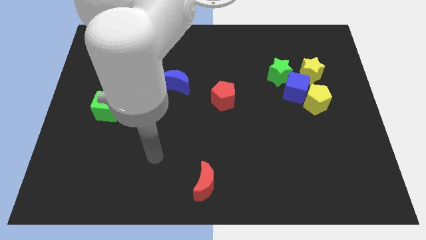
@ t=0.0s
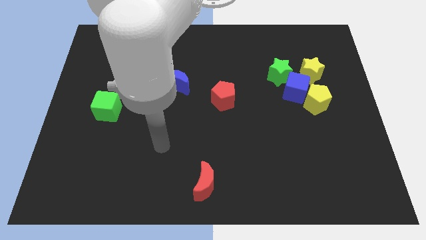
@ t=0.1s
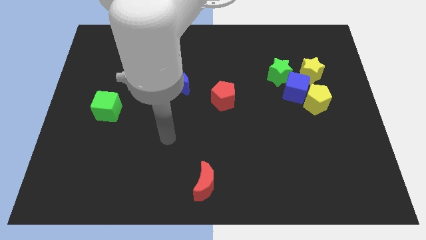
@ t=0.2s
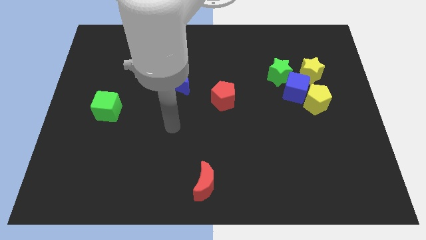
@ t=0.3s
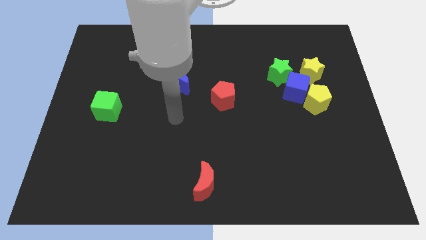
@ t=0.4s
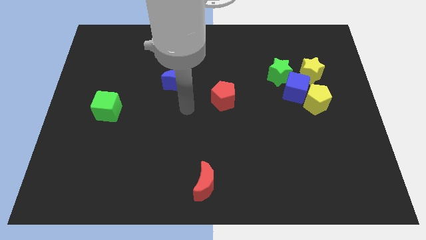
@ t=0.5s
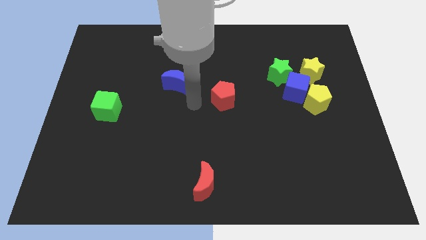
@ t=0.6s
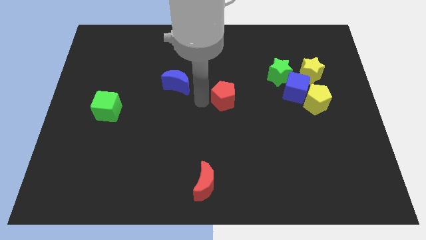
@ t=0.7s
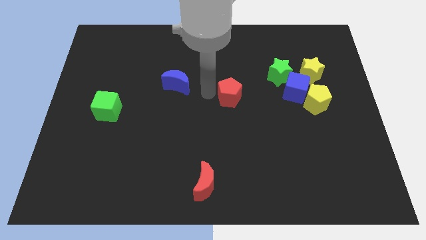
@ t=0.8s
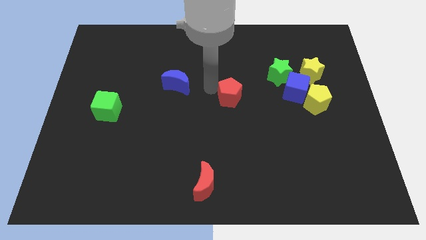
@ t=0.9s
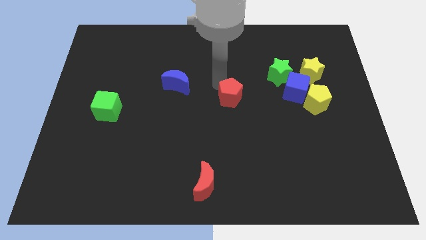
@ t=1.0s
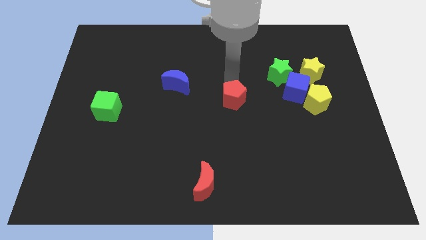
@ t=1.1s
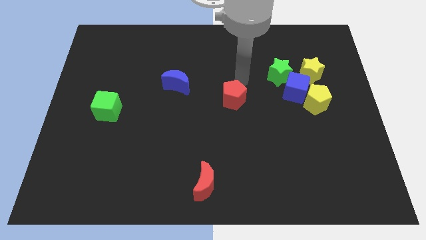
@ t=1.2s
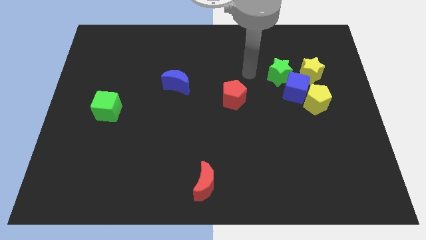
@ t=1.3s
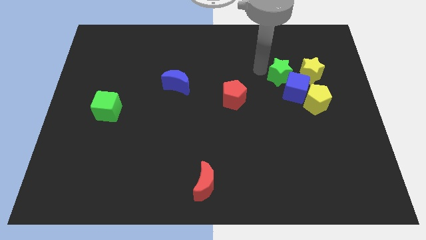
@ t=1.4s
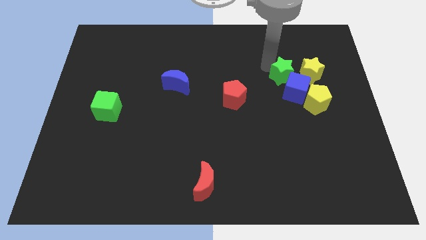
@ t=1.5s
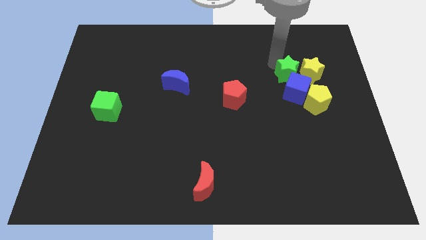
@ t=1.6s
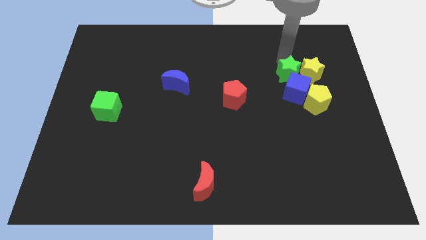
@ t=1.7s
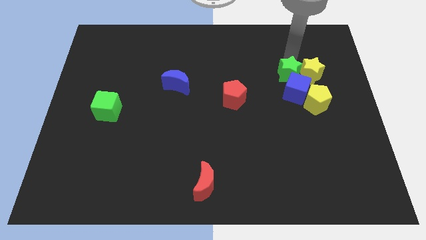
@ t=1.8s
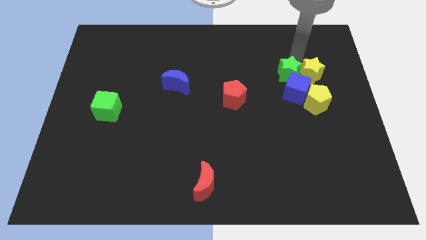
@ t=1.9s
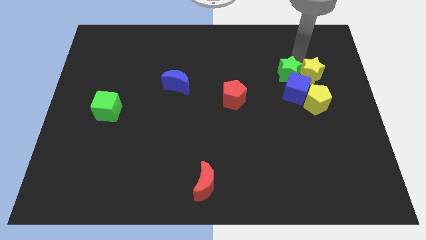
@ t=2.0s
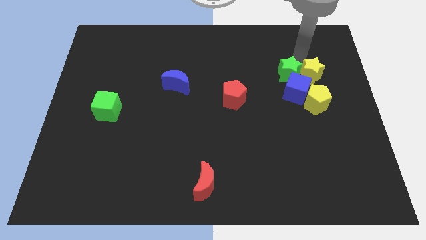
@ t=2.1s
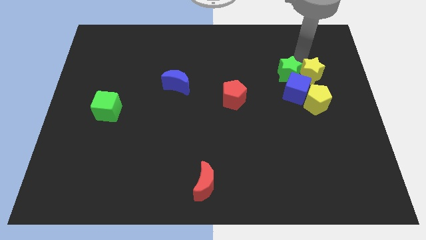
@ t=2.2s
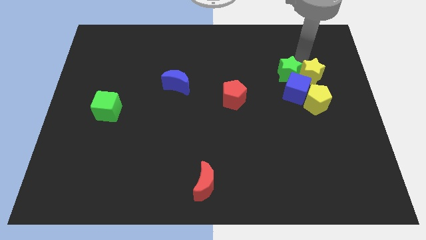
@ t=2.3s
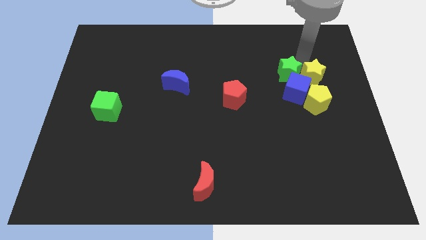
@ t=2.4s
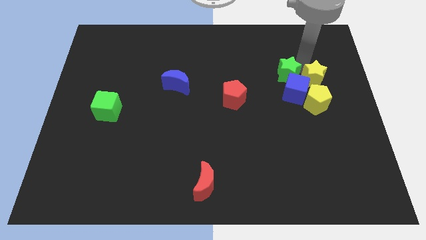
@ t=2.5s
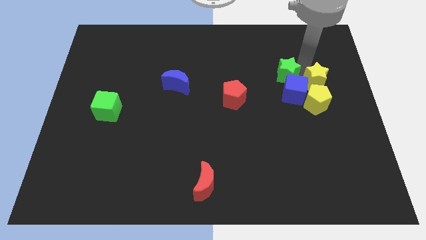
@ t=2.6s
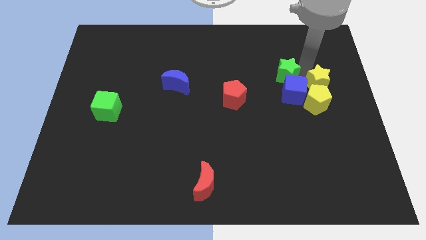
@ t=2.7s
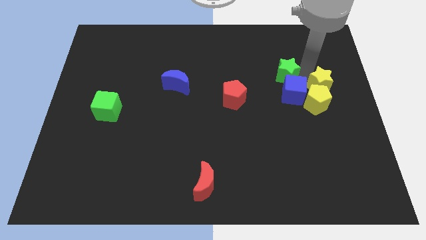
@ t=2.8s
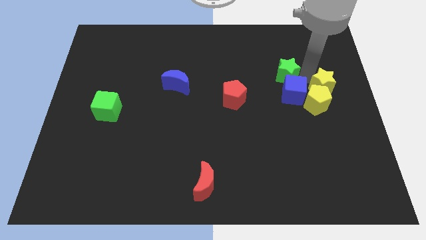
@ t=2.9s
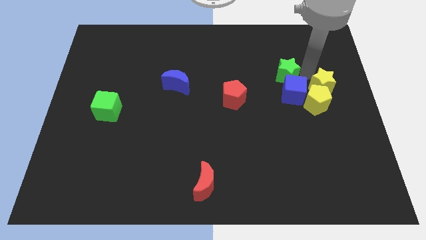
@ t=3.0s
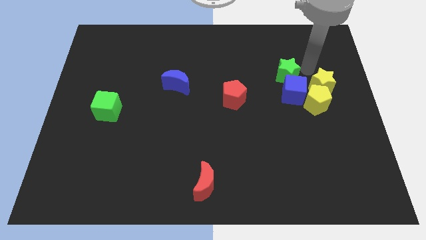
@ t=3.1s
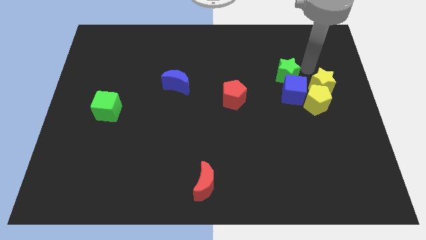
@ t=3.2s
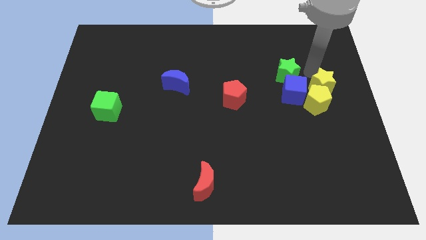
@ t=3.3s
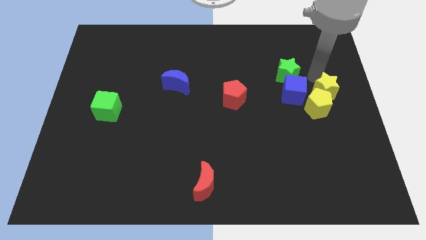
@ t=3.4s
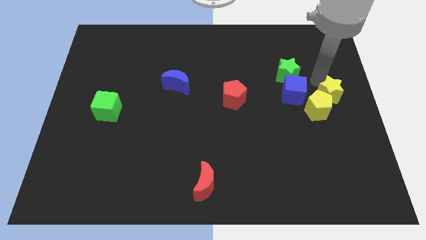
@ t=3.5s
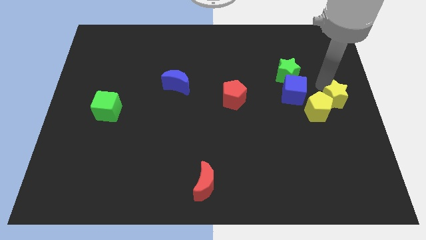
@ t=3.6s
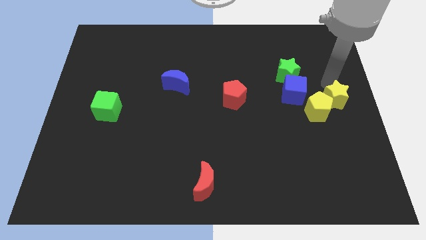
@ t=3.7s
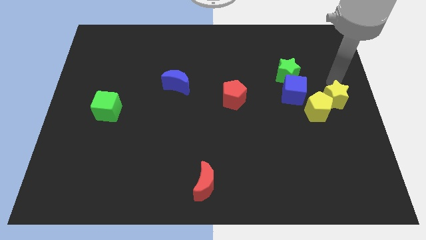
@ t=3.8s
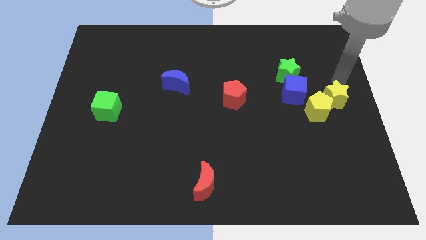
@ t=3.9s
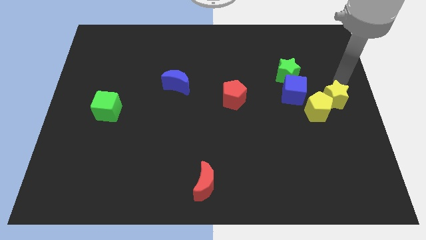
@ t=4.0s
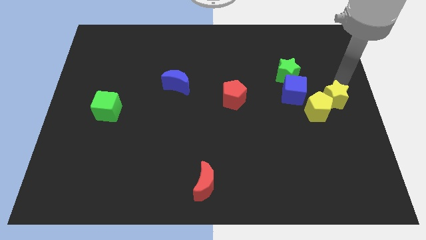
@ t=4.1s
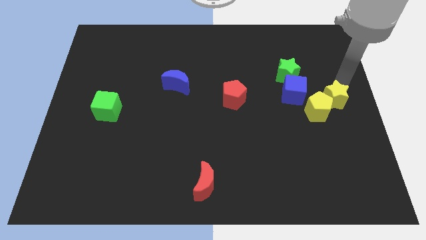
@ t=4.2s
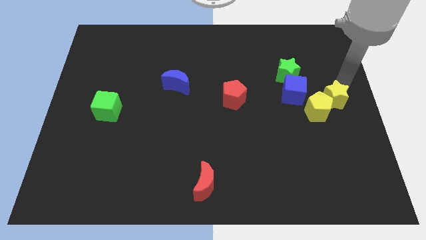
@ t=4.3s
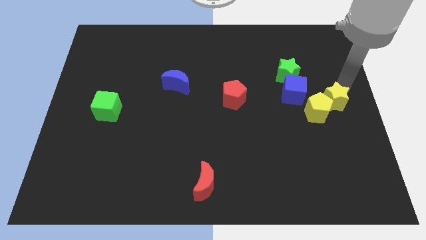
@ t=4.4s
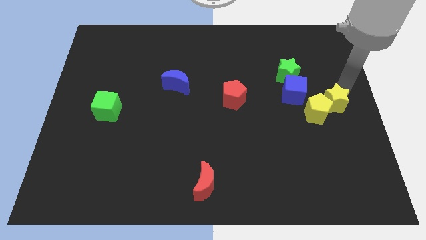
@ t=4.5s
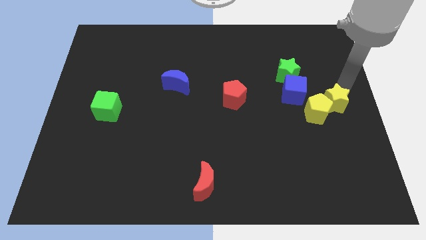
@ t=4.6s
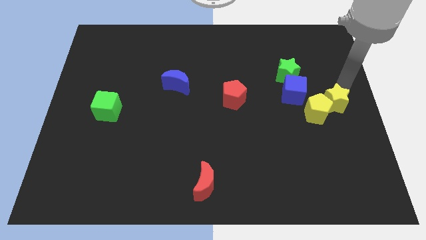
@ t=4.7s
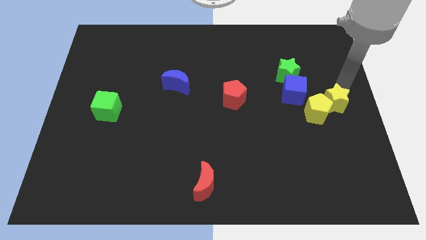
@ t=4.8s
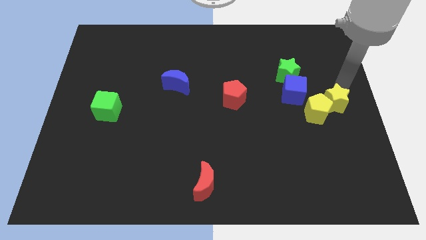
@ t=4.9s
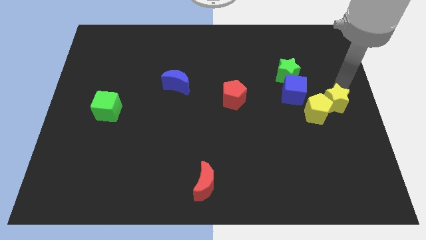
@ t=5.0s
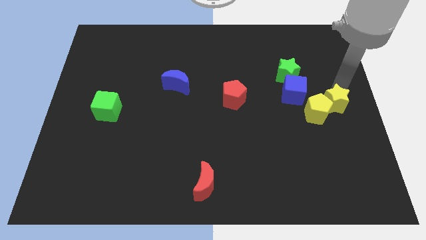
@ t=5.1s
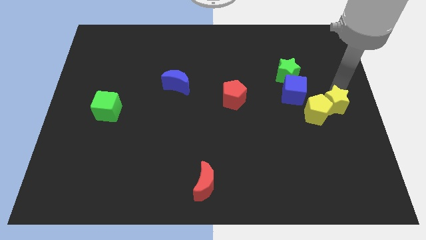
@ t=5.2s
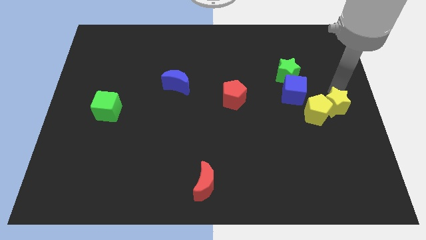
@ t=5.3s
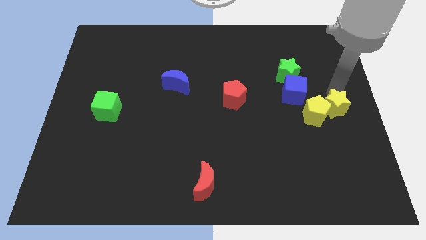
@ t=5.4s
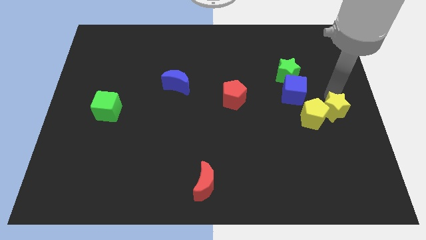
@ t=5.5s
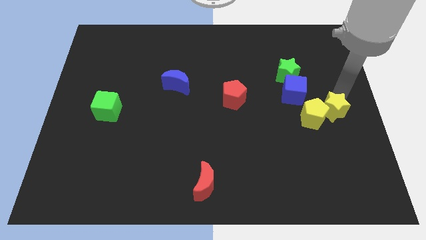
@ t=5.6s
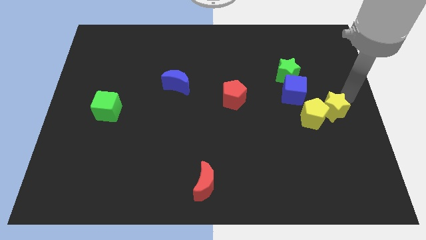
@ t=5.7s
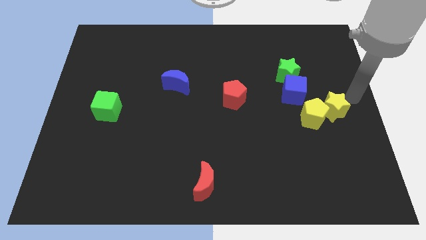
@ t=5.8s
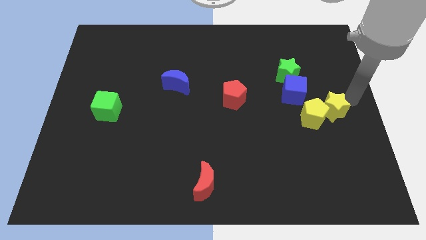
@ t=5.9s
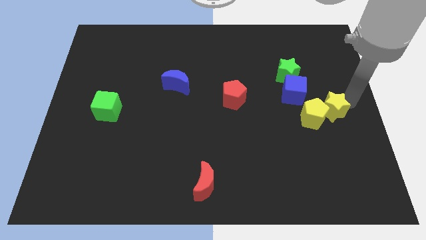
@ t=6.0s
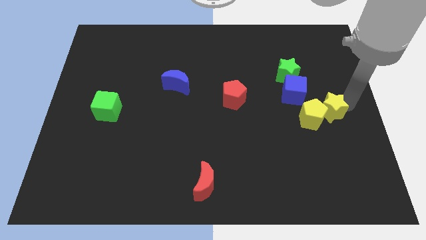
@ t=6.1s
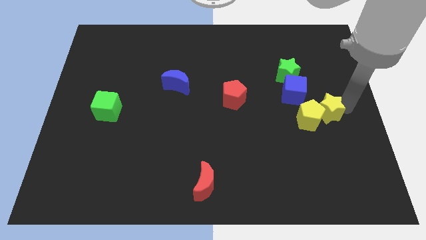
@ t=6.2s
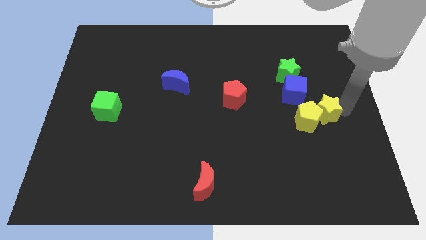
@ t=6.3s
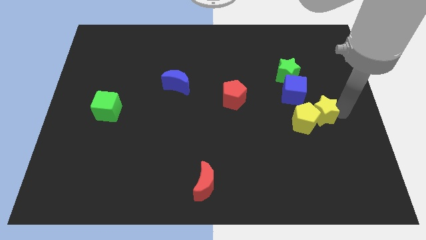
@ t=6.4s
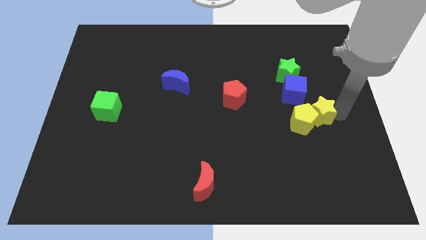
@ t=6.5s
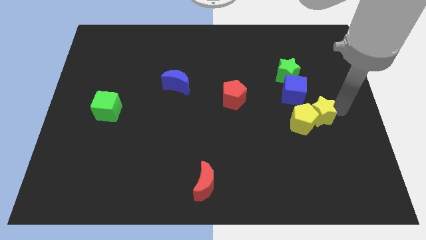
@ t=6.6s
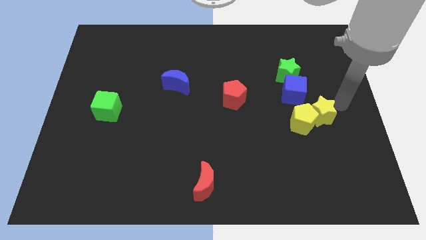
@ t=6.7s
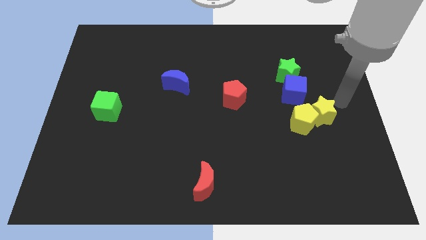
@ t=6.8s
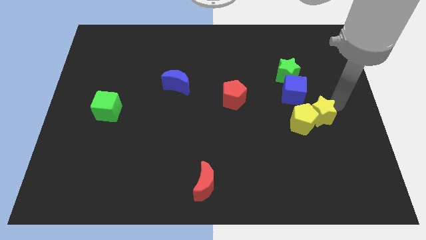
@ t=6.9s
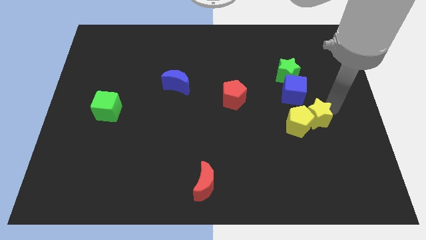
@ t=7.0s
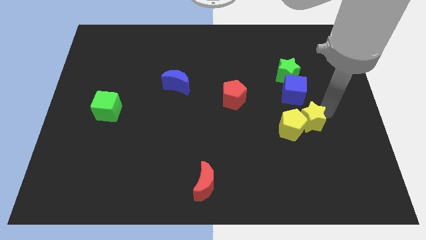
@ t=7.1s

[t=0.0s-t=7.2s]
move the yellow star a little bit down and to the left

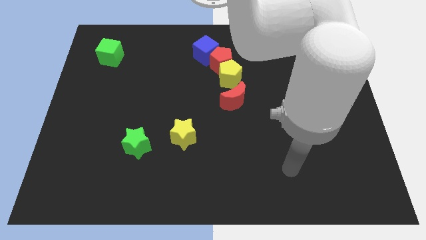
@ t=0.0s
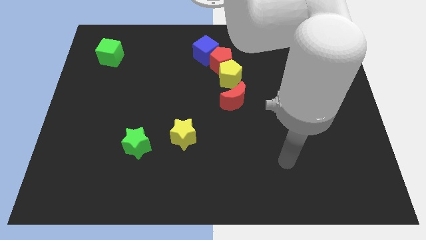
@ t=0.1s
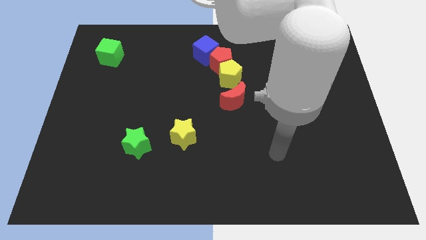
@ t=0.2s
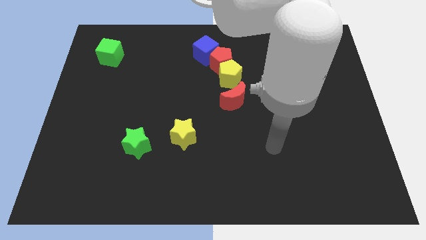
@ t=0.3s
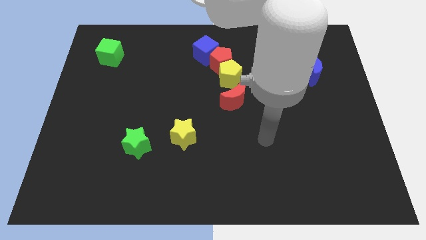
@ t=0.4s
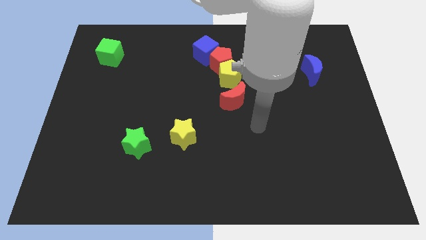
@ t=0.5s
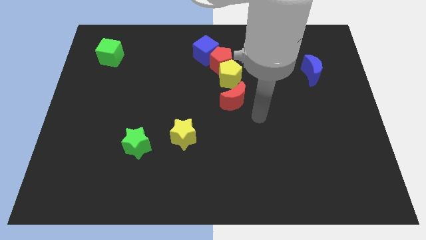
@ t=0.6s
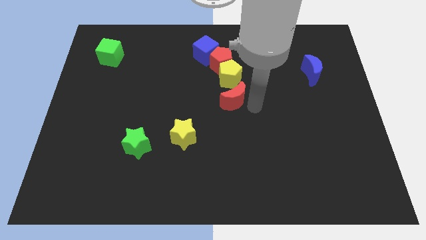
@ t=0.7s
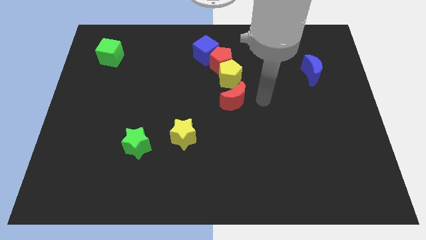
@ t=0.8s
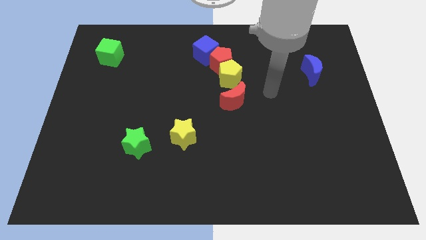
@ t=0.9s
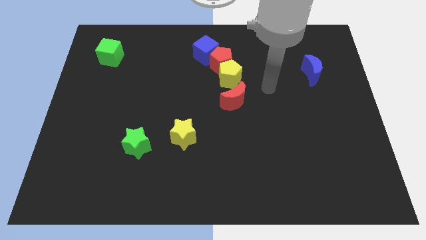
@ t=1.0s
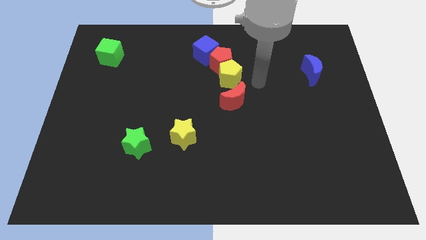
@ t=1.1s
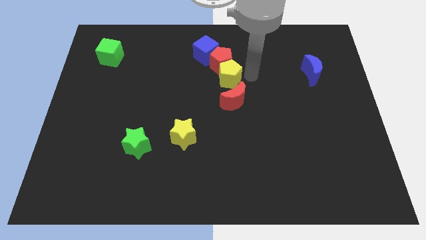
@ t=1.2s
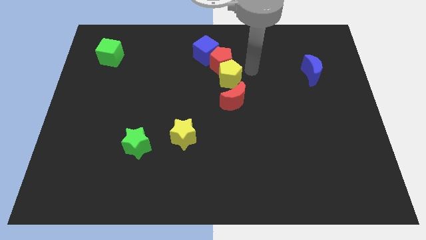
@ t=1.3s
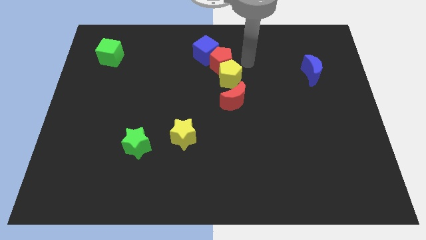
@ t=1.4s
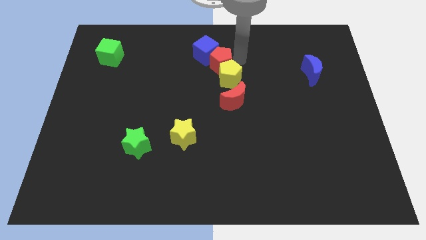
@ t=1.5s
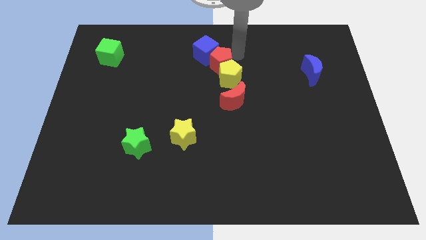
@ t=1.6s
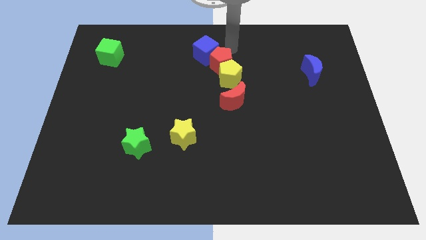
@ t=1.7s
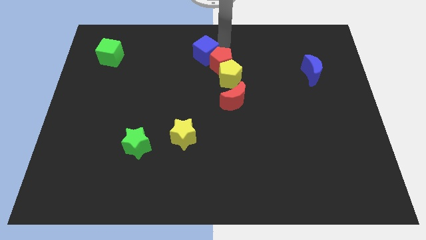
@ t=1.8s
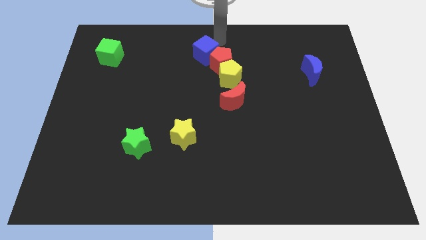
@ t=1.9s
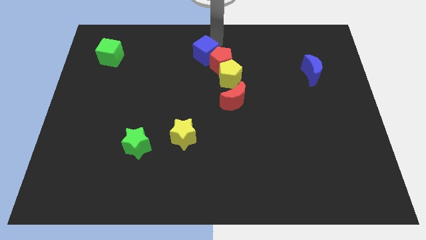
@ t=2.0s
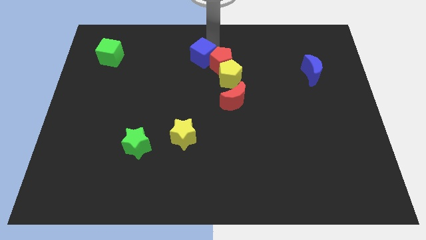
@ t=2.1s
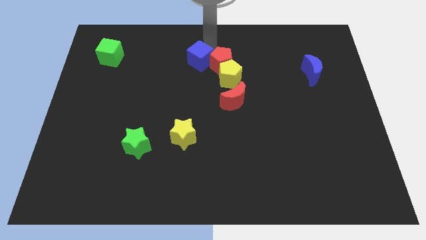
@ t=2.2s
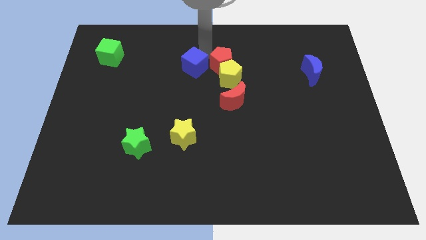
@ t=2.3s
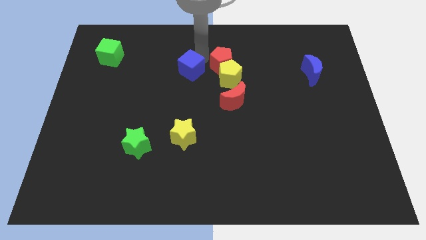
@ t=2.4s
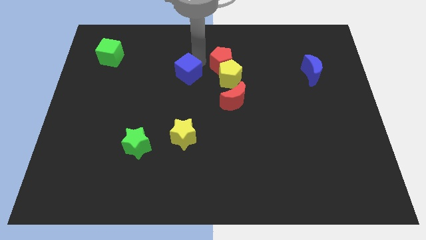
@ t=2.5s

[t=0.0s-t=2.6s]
slightly push the blue cube diagonally down and left
